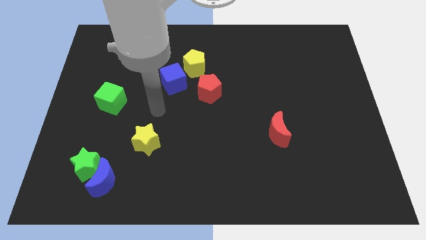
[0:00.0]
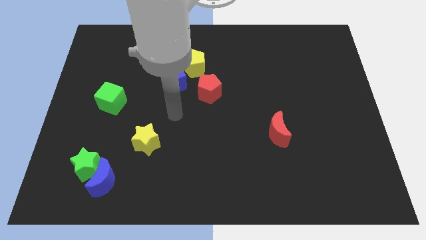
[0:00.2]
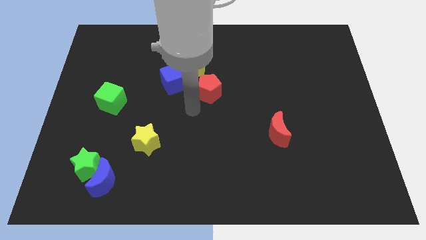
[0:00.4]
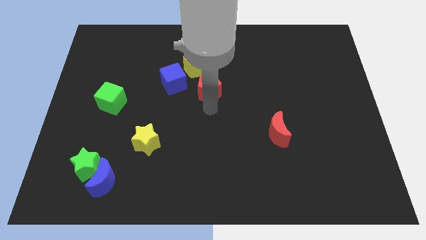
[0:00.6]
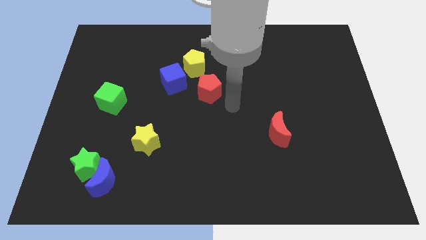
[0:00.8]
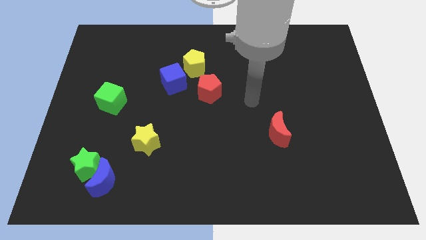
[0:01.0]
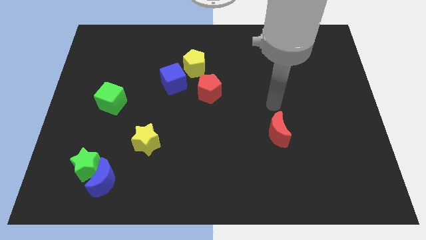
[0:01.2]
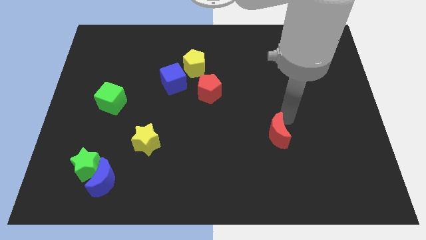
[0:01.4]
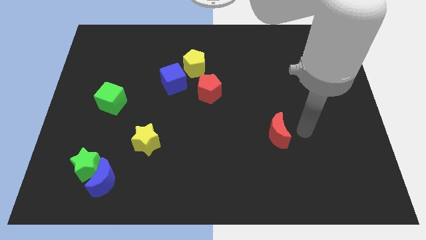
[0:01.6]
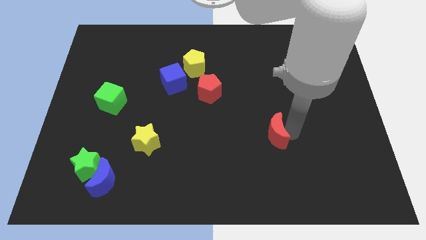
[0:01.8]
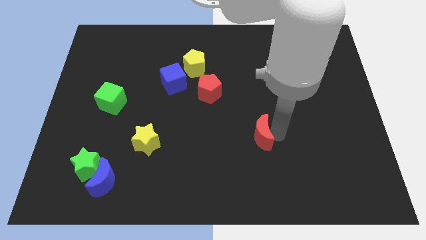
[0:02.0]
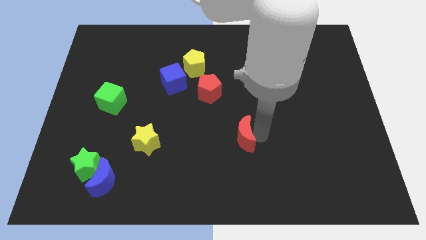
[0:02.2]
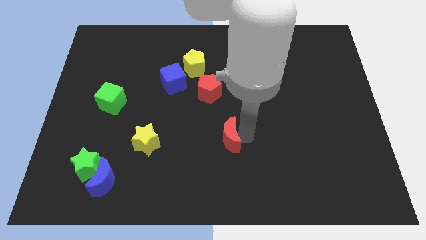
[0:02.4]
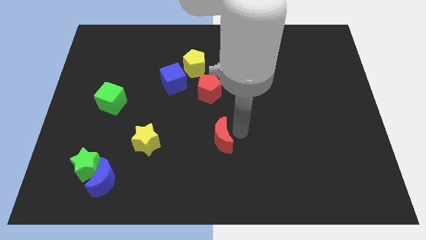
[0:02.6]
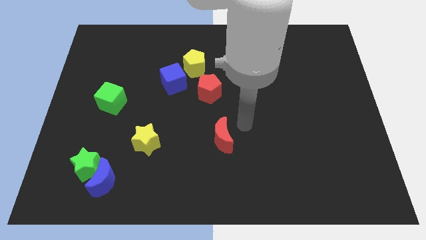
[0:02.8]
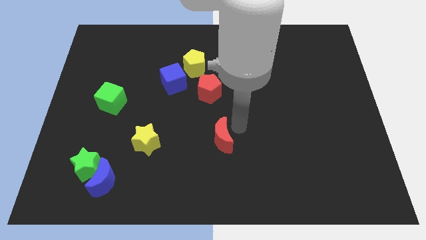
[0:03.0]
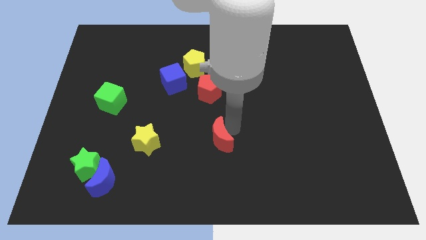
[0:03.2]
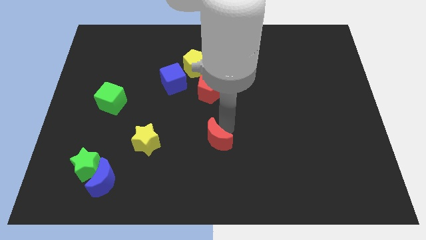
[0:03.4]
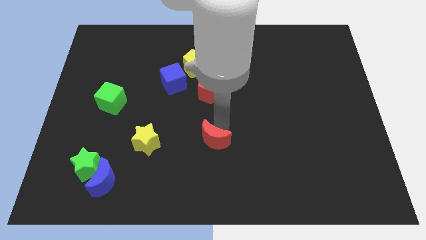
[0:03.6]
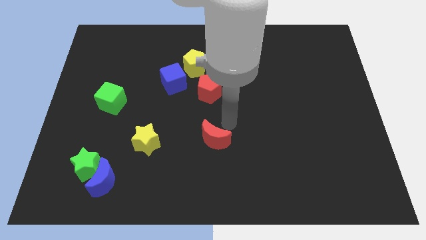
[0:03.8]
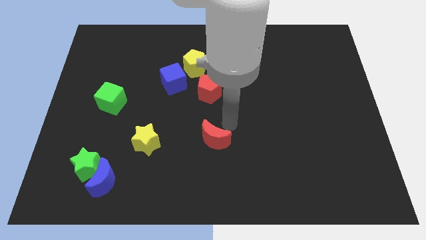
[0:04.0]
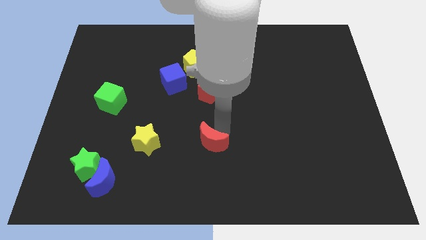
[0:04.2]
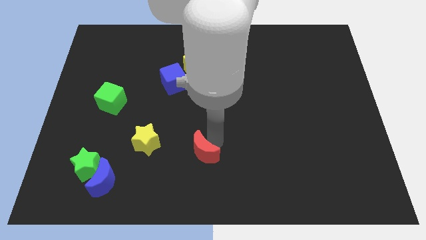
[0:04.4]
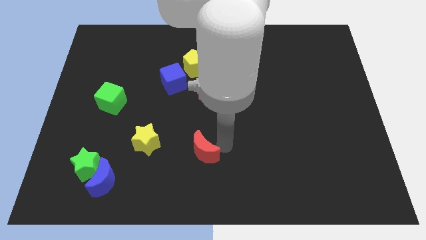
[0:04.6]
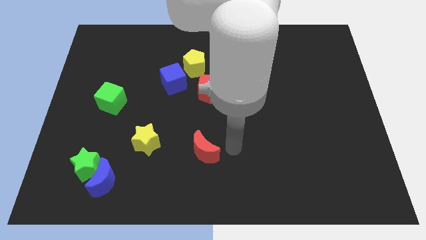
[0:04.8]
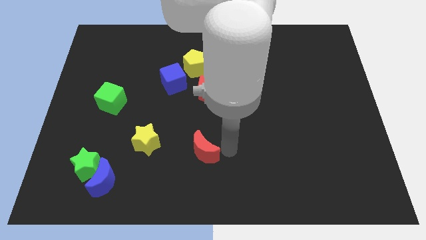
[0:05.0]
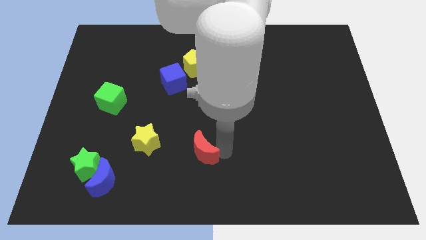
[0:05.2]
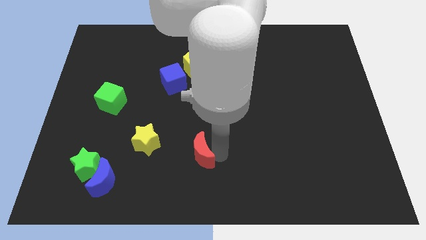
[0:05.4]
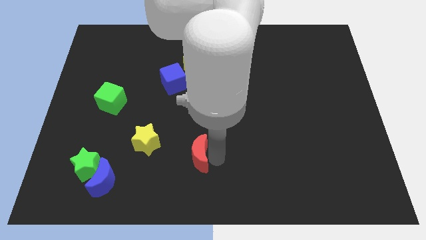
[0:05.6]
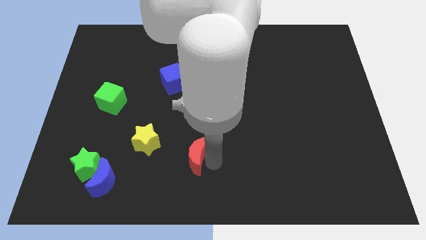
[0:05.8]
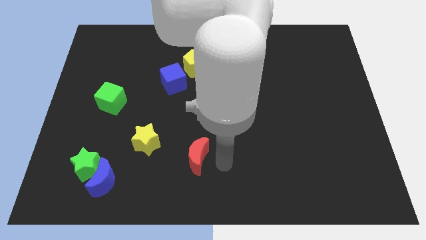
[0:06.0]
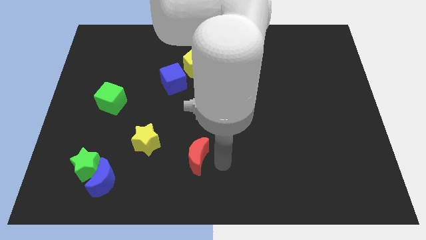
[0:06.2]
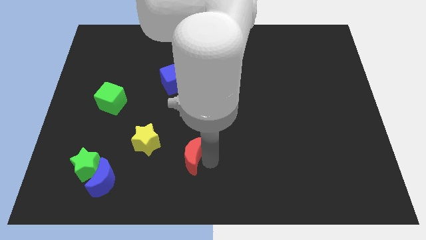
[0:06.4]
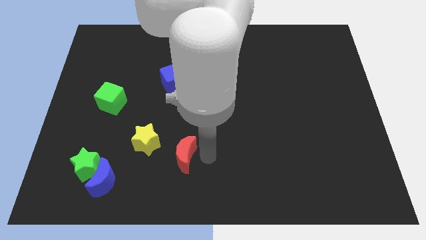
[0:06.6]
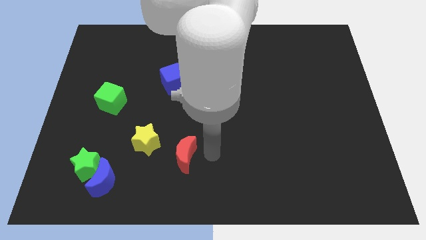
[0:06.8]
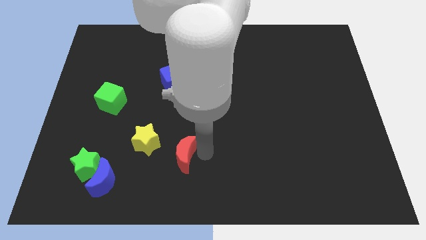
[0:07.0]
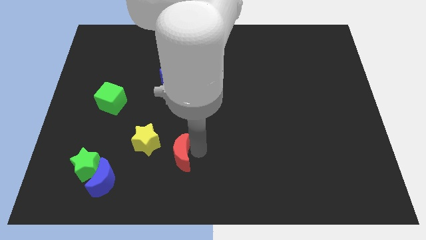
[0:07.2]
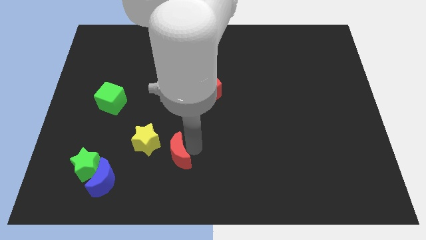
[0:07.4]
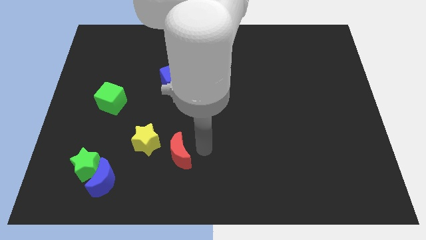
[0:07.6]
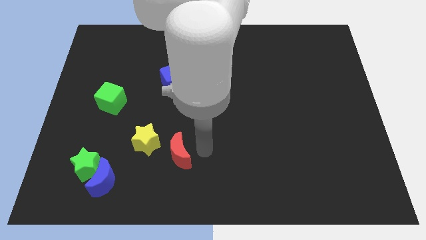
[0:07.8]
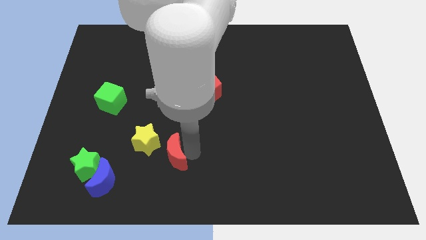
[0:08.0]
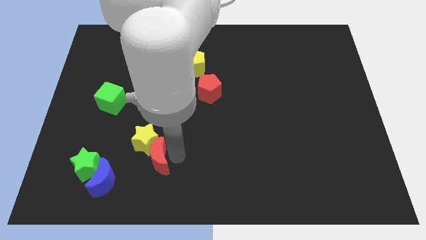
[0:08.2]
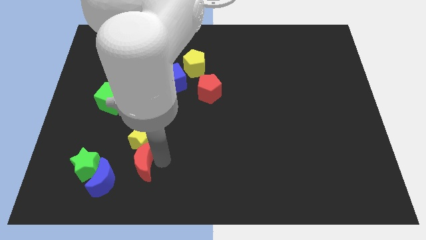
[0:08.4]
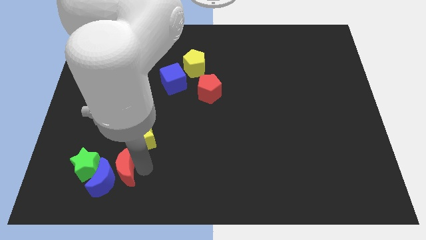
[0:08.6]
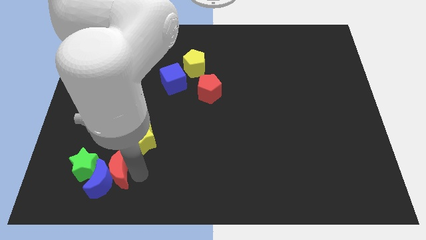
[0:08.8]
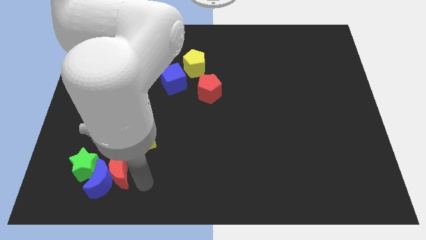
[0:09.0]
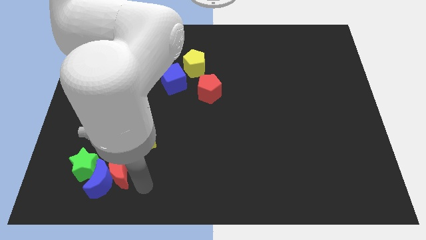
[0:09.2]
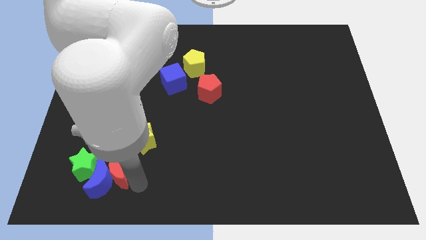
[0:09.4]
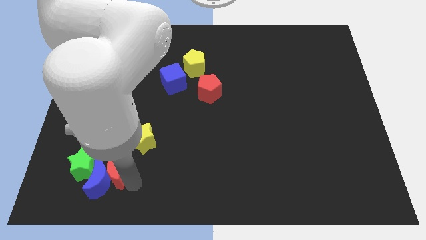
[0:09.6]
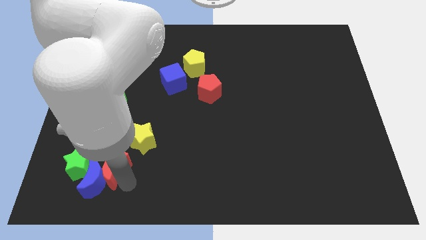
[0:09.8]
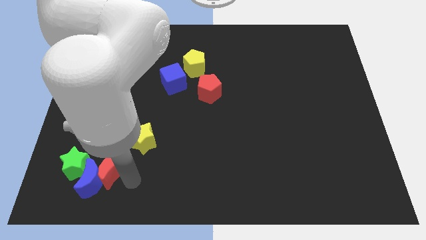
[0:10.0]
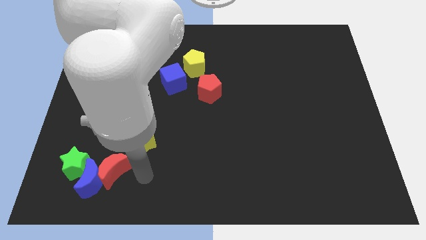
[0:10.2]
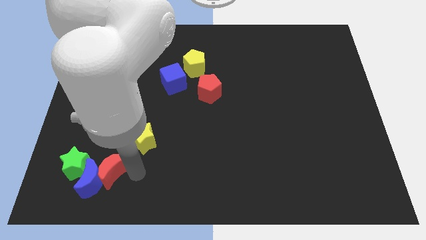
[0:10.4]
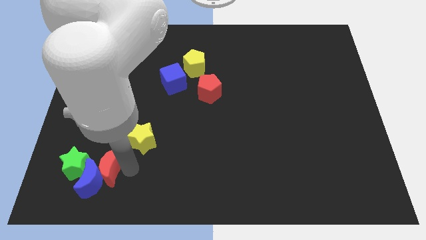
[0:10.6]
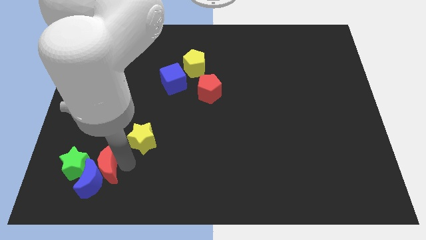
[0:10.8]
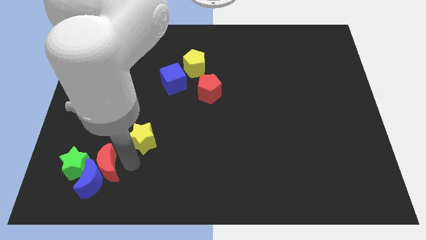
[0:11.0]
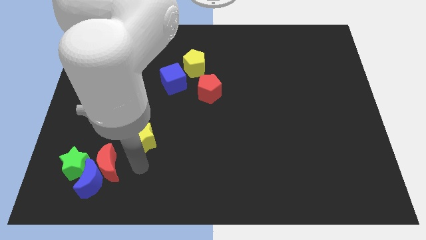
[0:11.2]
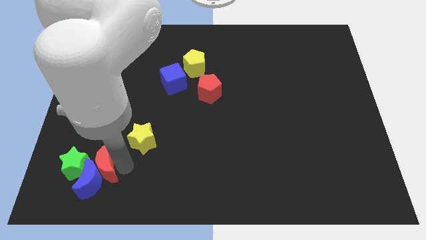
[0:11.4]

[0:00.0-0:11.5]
move the red moon close to the green star

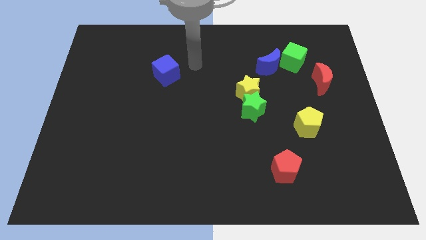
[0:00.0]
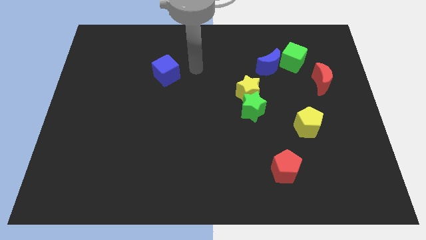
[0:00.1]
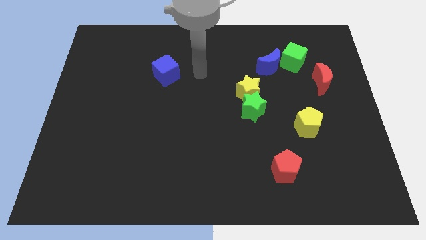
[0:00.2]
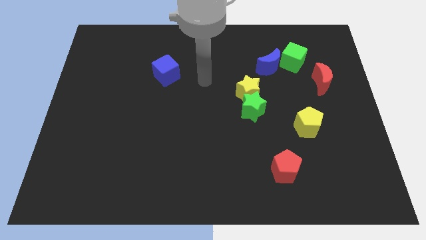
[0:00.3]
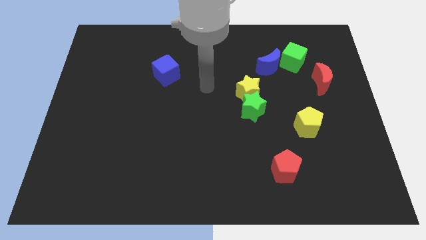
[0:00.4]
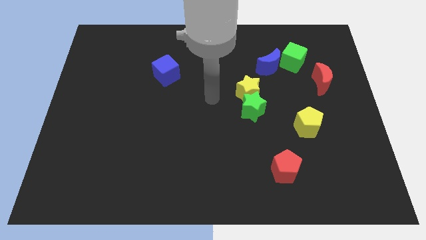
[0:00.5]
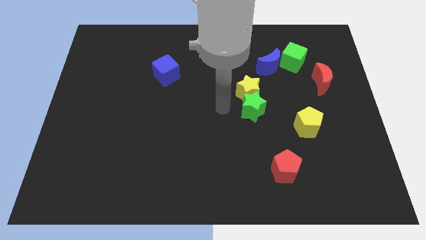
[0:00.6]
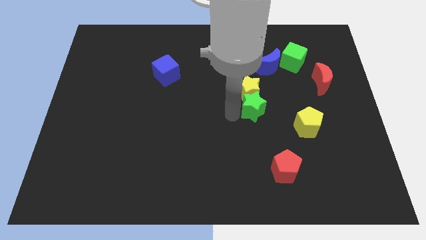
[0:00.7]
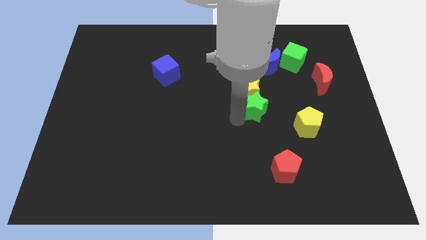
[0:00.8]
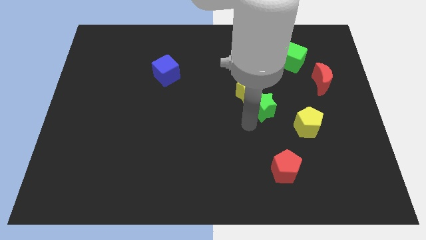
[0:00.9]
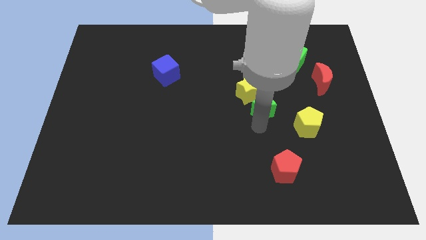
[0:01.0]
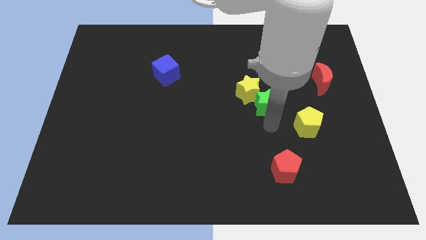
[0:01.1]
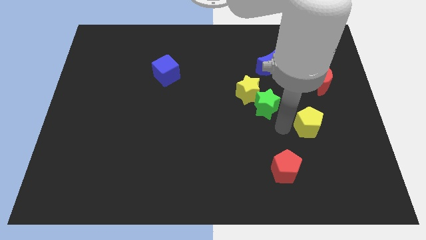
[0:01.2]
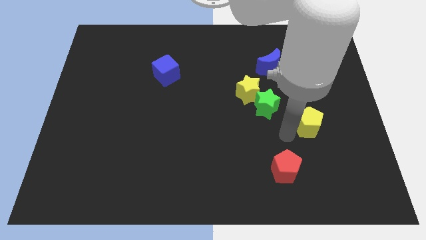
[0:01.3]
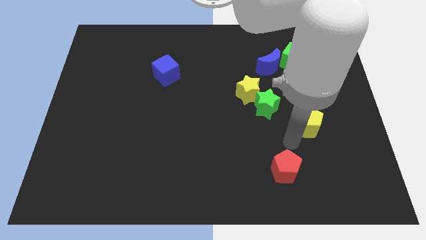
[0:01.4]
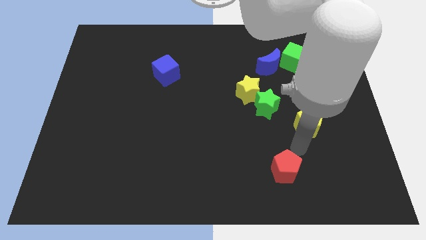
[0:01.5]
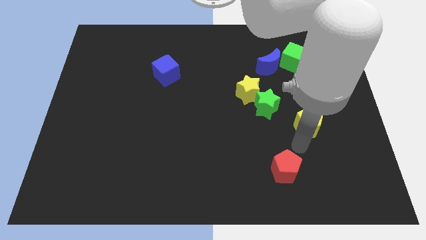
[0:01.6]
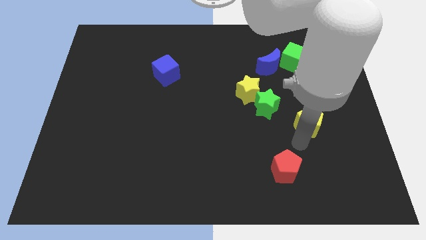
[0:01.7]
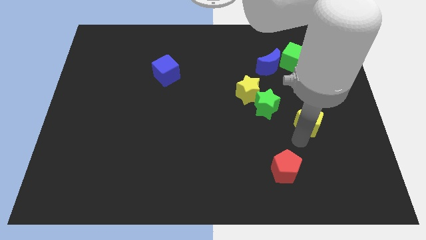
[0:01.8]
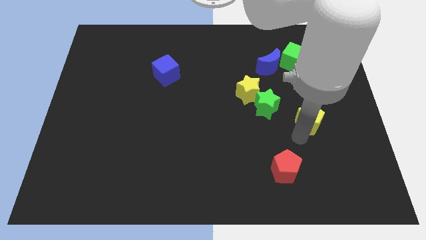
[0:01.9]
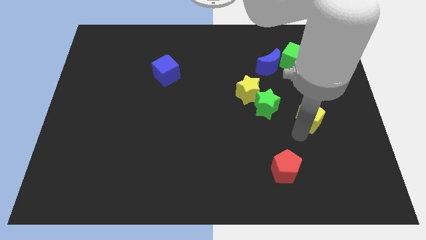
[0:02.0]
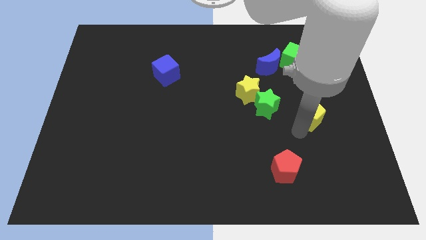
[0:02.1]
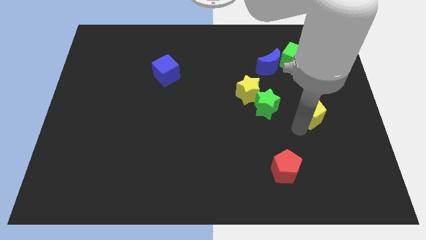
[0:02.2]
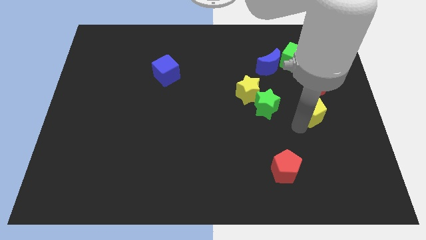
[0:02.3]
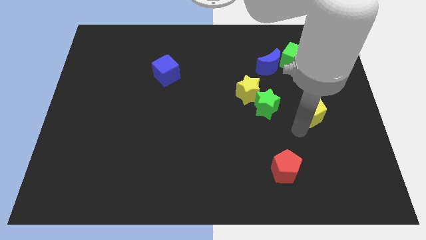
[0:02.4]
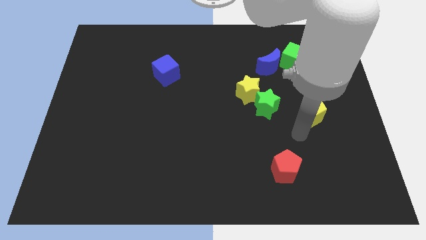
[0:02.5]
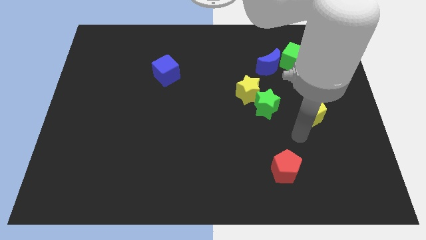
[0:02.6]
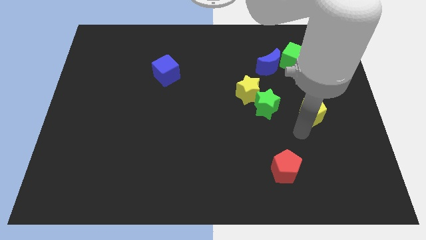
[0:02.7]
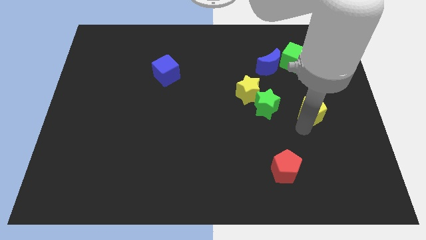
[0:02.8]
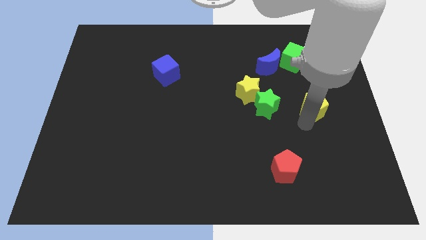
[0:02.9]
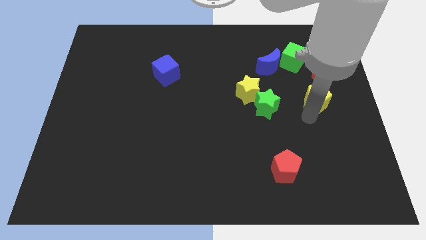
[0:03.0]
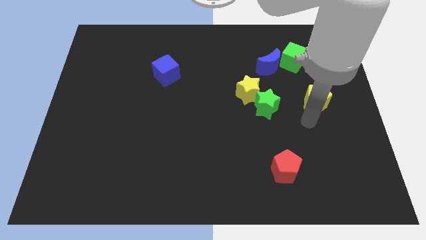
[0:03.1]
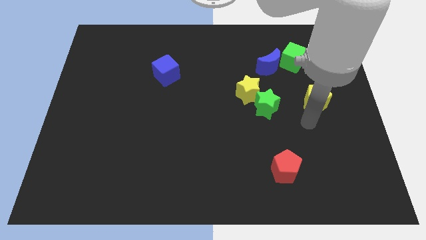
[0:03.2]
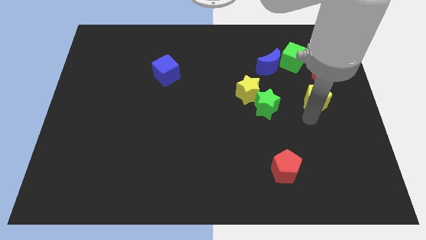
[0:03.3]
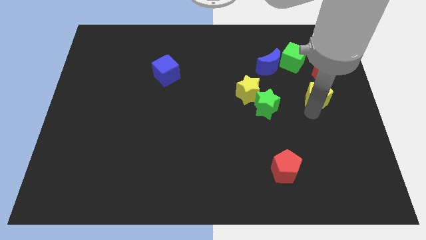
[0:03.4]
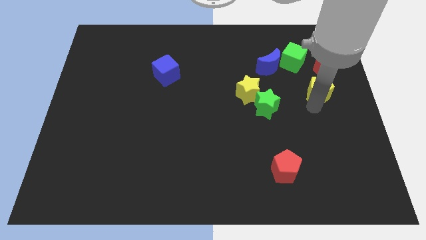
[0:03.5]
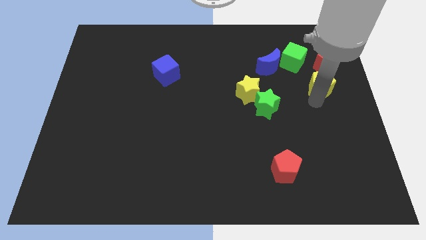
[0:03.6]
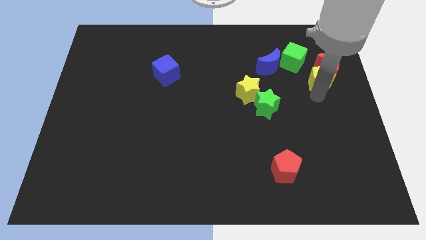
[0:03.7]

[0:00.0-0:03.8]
push the yellow pentagon close to the red moon
